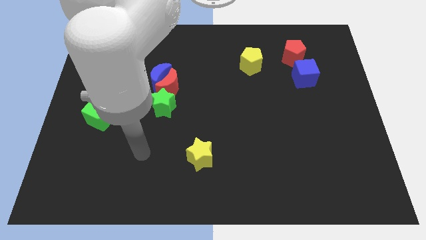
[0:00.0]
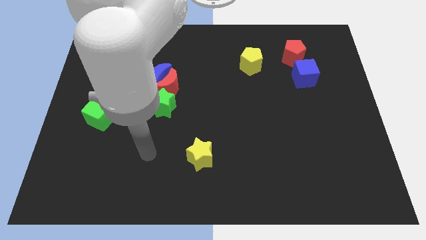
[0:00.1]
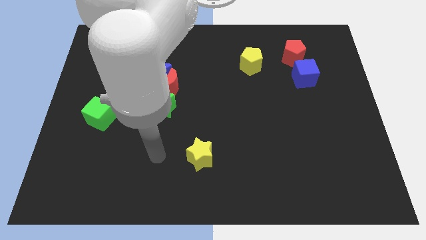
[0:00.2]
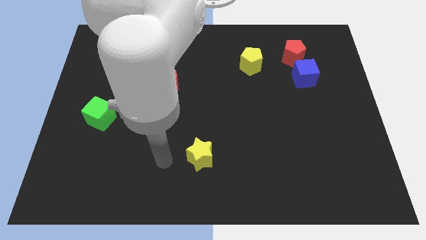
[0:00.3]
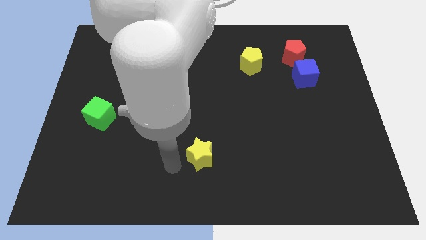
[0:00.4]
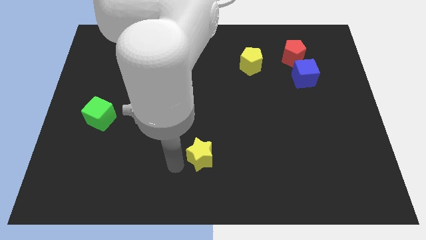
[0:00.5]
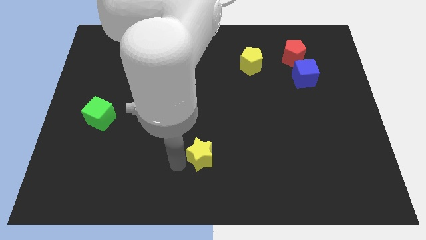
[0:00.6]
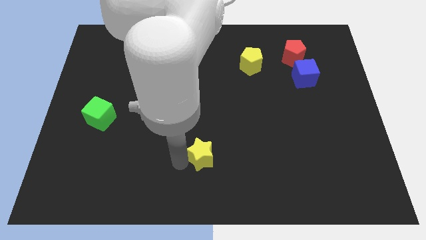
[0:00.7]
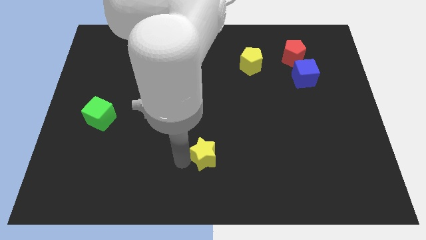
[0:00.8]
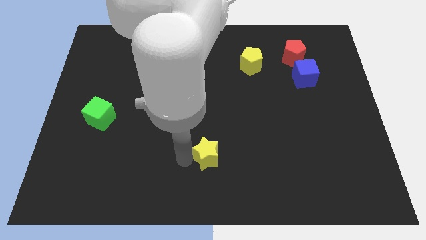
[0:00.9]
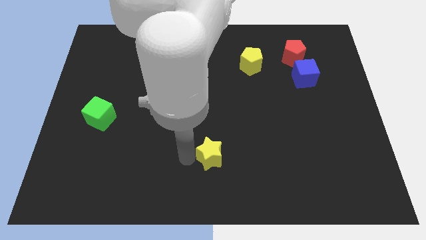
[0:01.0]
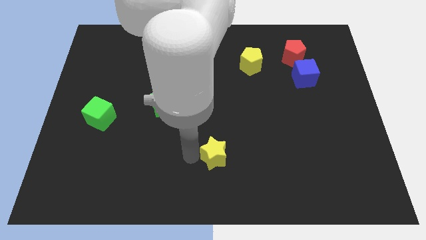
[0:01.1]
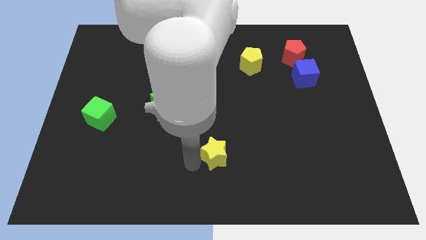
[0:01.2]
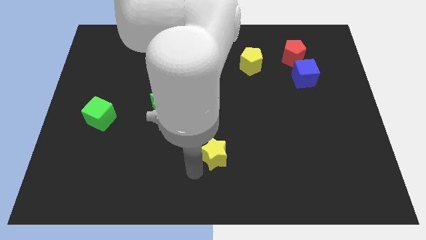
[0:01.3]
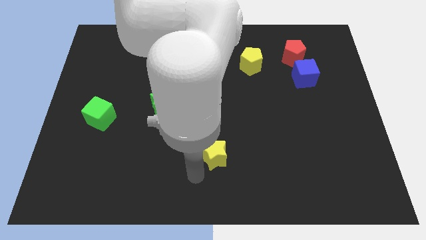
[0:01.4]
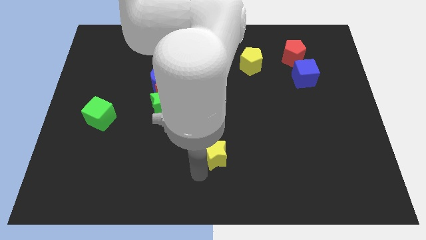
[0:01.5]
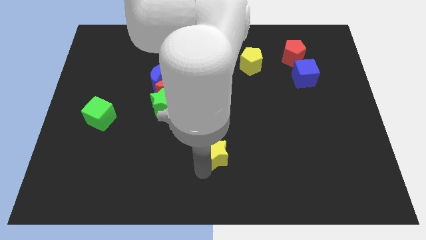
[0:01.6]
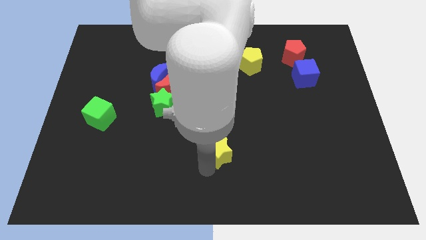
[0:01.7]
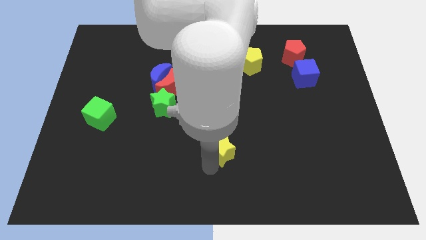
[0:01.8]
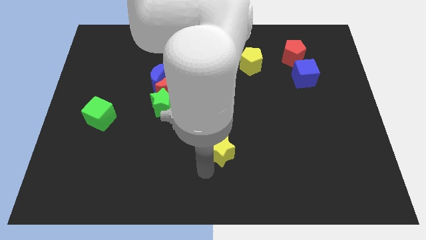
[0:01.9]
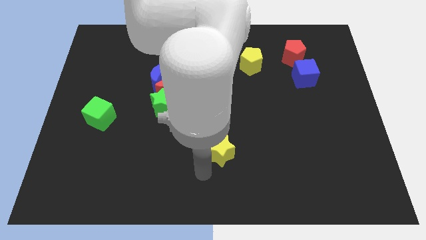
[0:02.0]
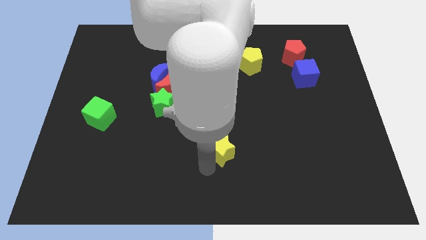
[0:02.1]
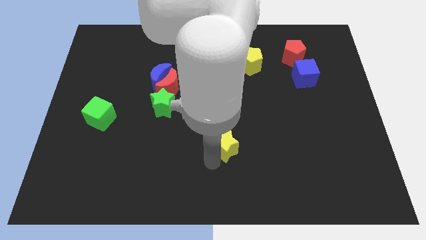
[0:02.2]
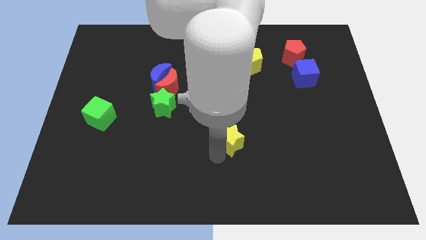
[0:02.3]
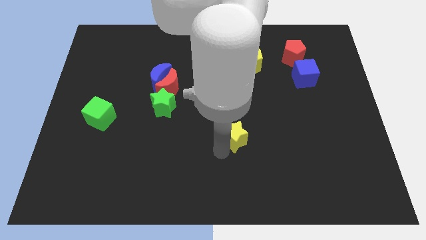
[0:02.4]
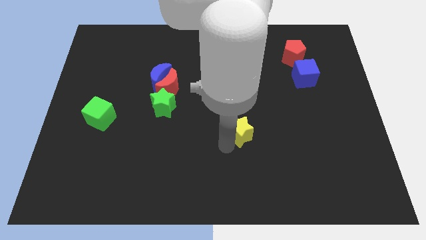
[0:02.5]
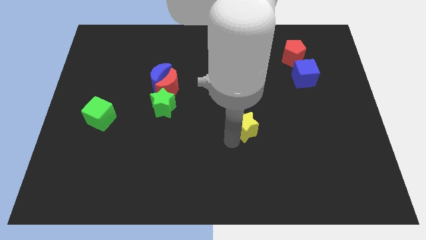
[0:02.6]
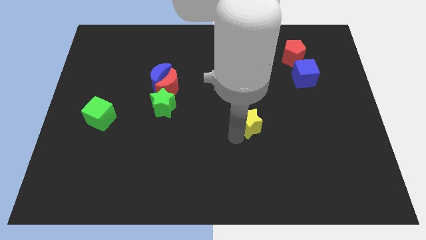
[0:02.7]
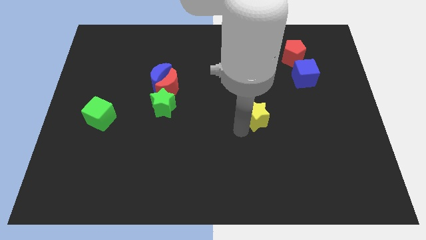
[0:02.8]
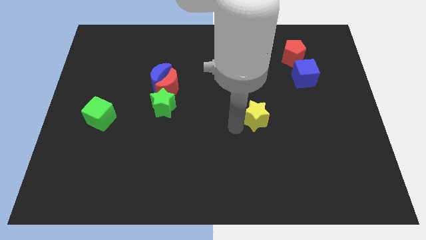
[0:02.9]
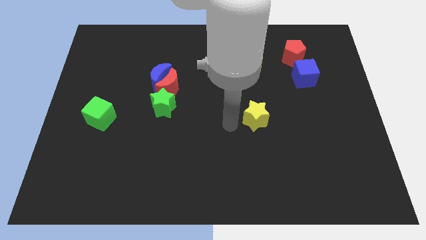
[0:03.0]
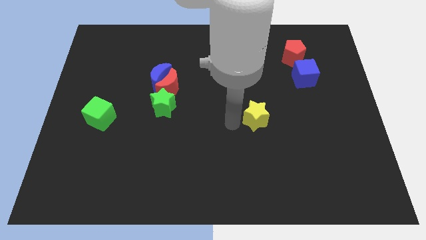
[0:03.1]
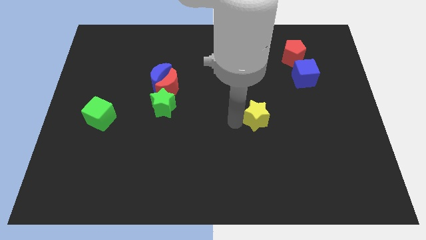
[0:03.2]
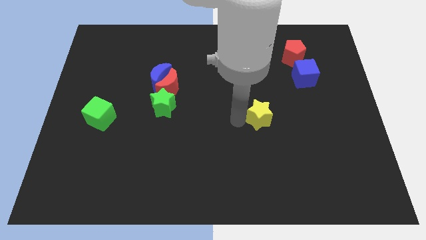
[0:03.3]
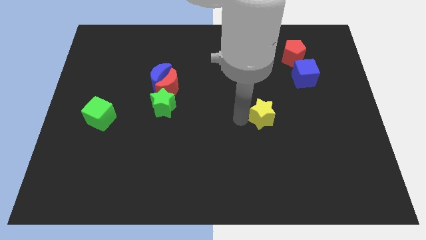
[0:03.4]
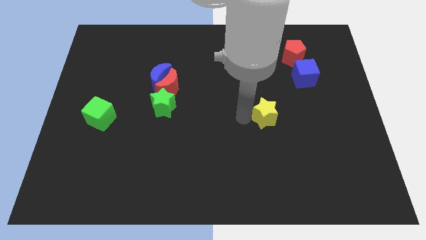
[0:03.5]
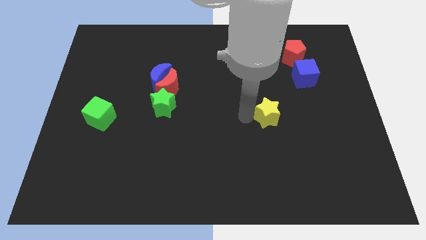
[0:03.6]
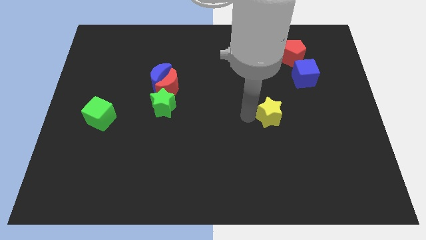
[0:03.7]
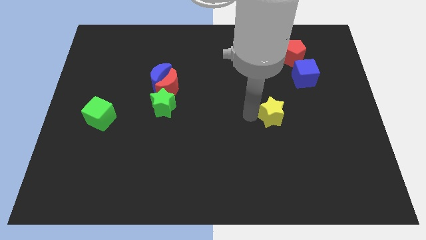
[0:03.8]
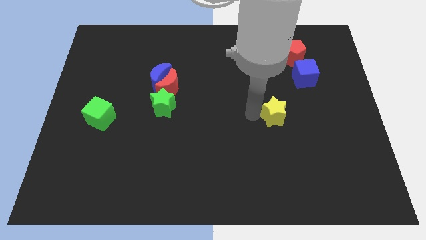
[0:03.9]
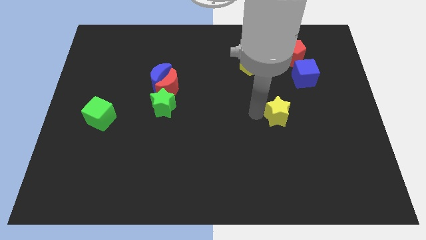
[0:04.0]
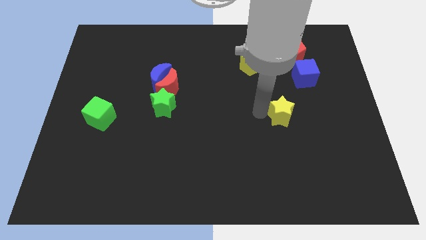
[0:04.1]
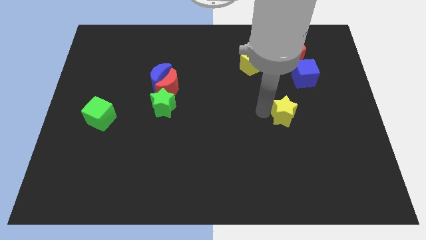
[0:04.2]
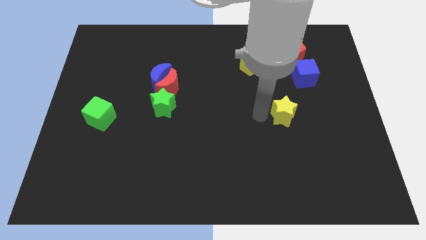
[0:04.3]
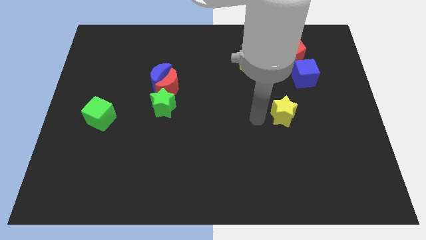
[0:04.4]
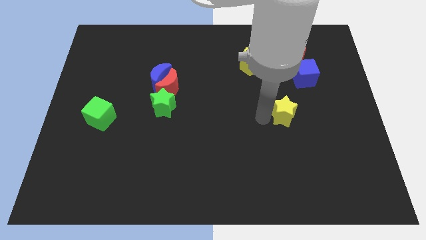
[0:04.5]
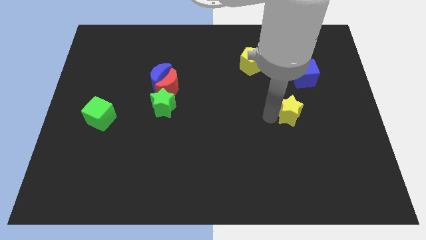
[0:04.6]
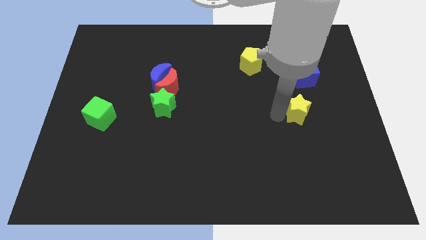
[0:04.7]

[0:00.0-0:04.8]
move the yellow star below the blue cube

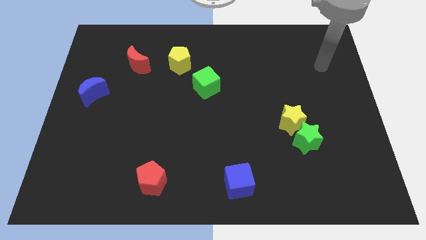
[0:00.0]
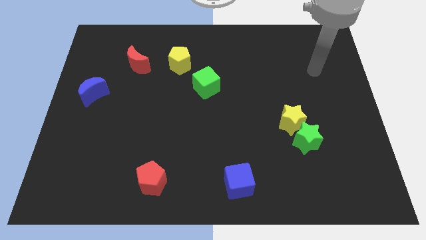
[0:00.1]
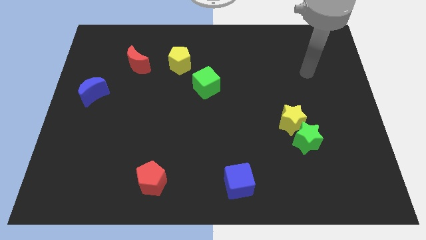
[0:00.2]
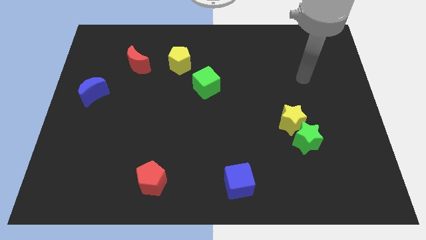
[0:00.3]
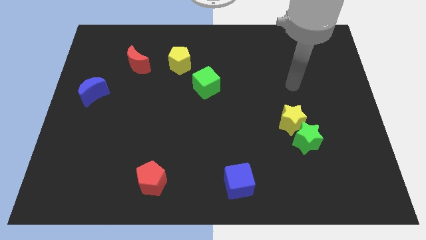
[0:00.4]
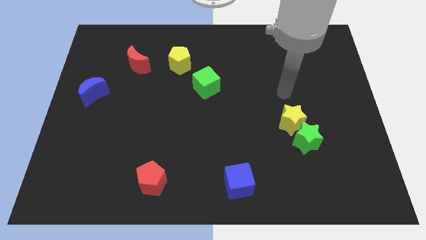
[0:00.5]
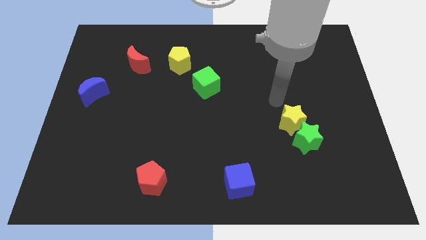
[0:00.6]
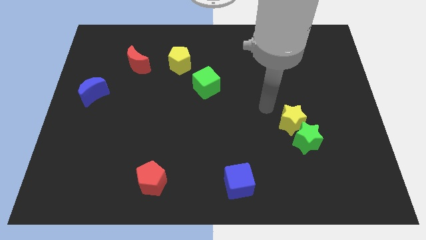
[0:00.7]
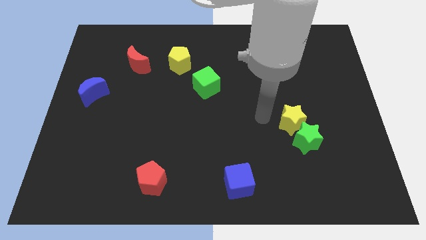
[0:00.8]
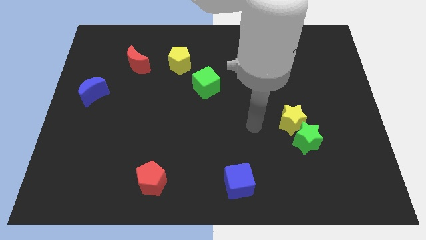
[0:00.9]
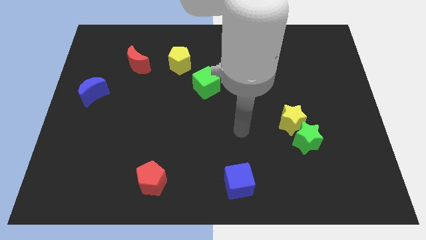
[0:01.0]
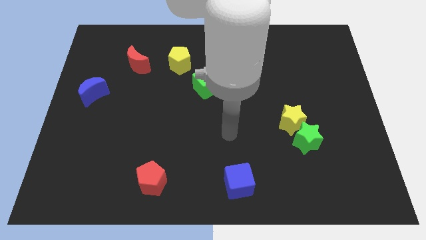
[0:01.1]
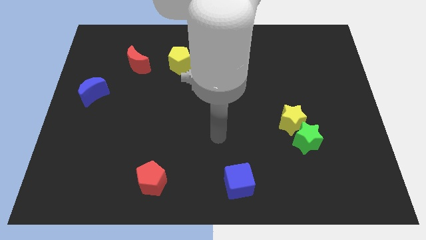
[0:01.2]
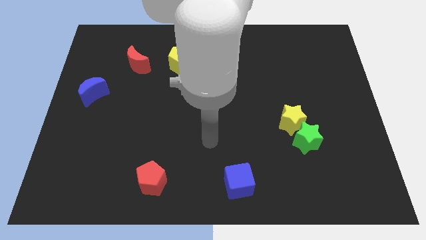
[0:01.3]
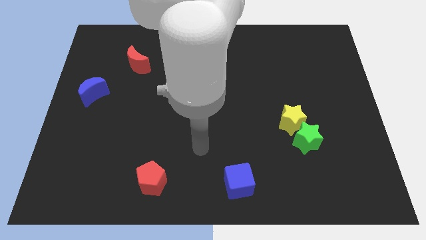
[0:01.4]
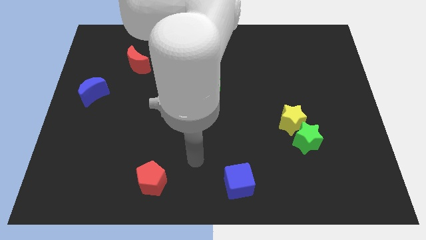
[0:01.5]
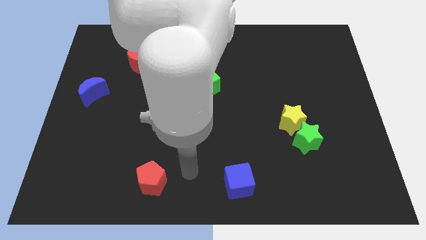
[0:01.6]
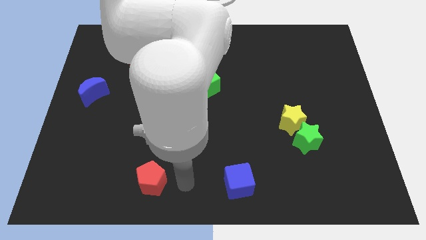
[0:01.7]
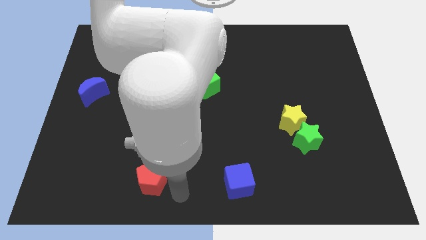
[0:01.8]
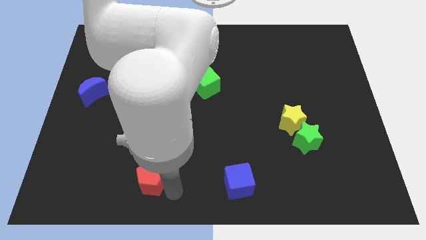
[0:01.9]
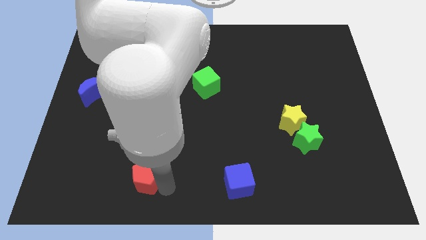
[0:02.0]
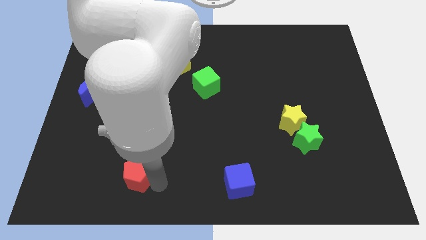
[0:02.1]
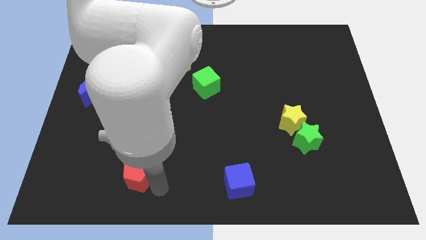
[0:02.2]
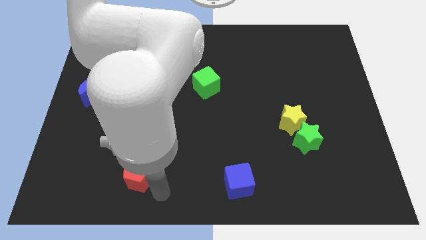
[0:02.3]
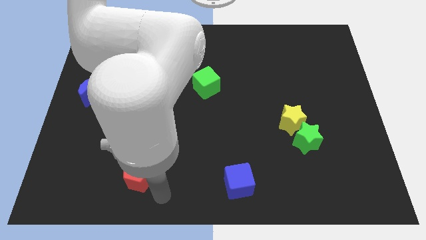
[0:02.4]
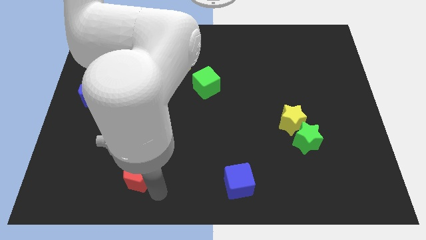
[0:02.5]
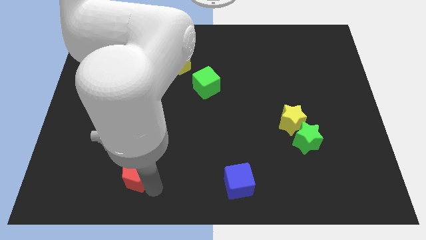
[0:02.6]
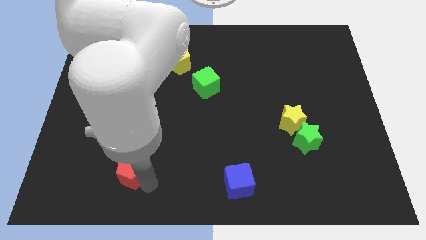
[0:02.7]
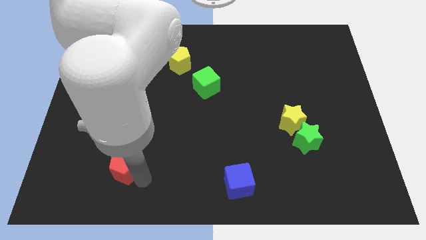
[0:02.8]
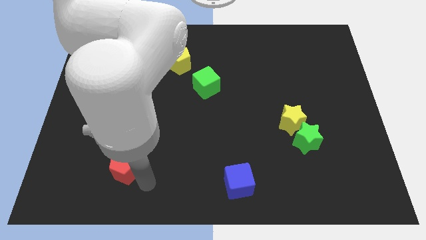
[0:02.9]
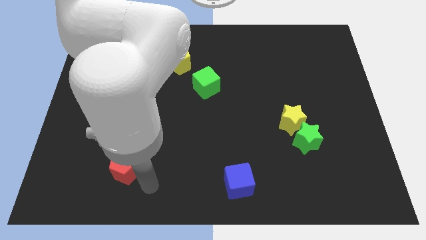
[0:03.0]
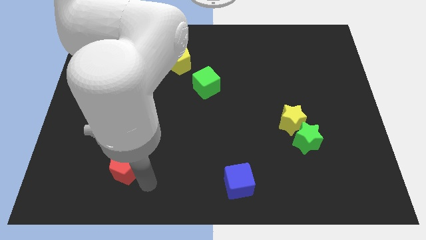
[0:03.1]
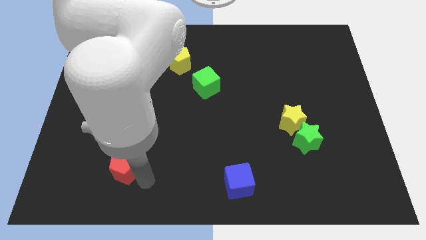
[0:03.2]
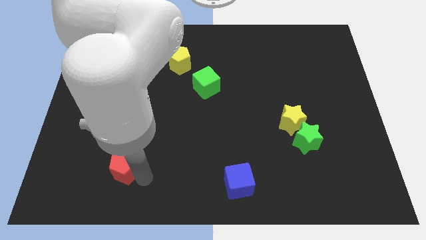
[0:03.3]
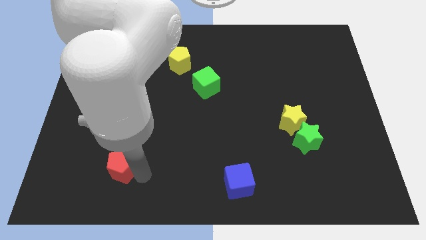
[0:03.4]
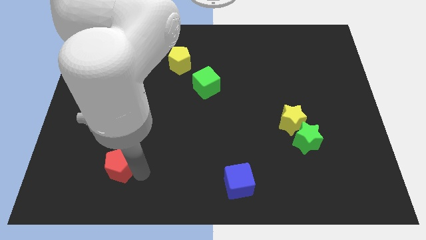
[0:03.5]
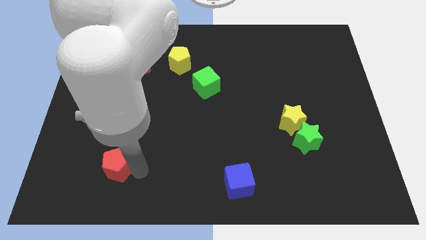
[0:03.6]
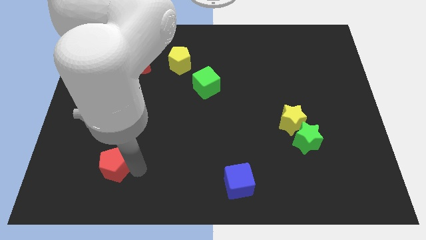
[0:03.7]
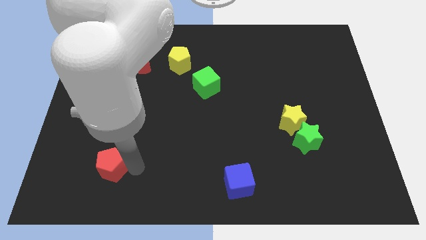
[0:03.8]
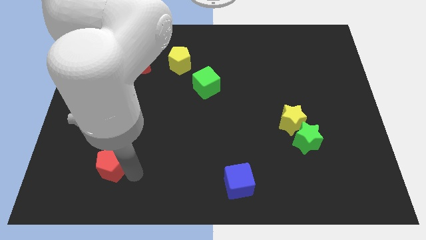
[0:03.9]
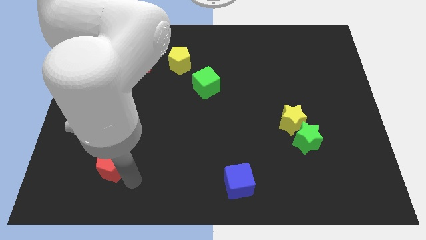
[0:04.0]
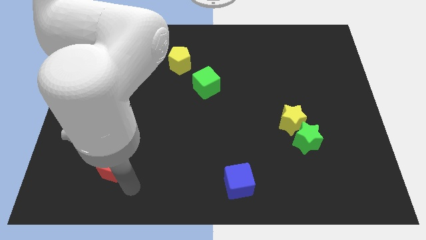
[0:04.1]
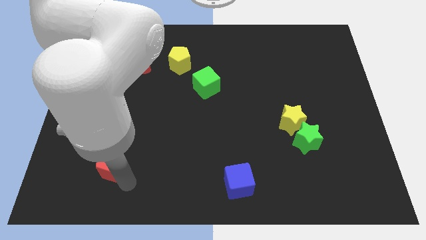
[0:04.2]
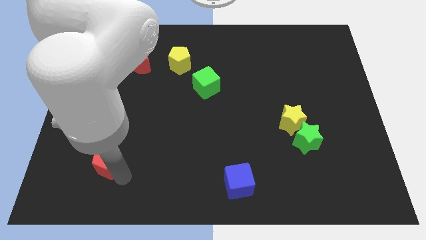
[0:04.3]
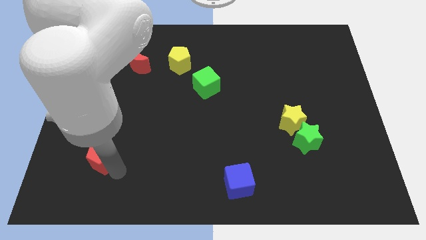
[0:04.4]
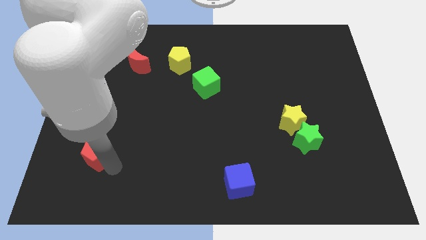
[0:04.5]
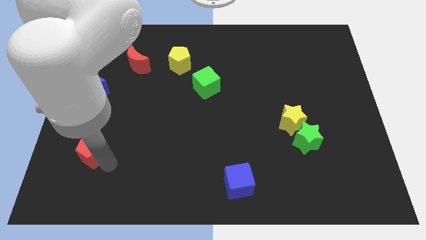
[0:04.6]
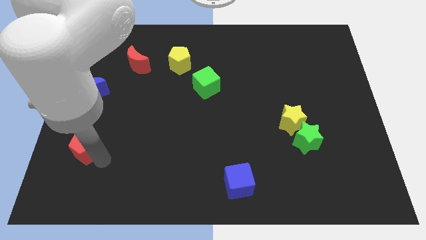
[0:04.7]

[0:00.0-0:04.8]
push the red pentagon below the blue moon
